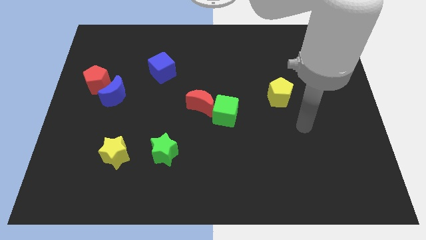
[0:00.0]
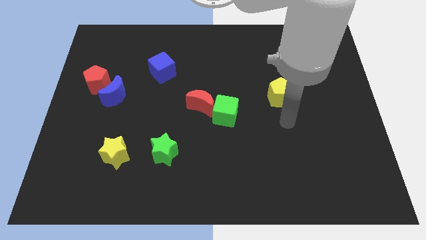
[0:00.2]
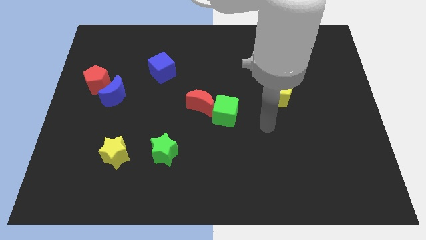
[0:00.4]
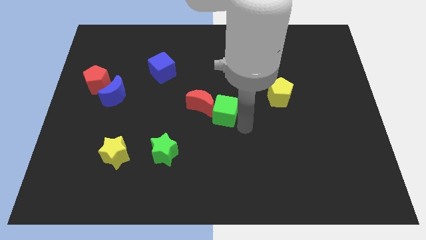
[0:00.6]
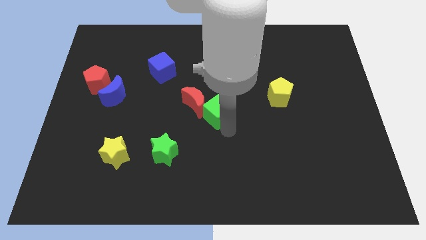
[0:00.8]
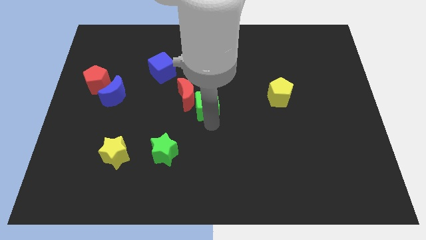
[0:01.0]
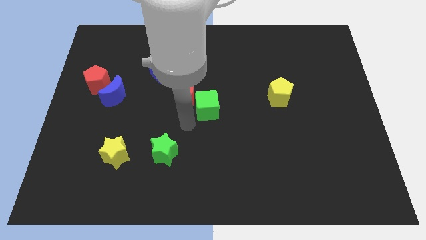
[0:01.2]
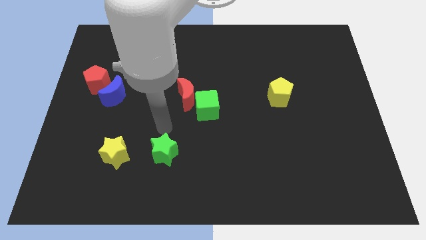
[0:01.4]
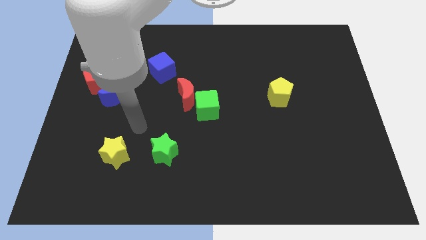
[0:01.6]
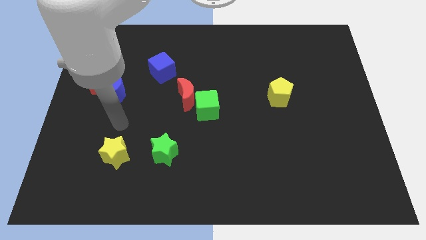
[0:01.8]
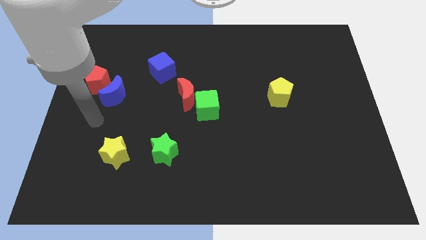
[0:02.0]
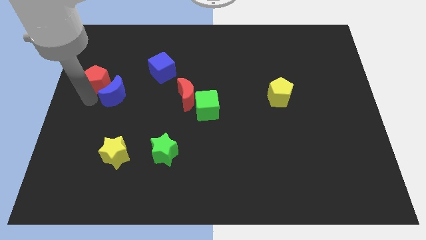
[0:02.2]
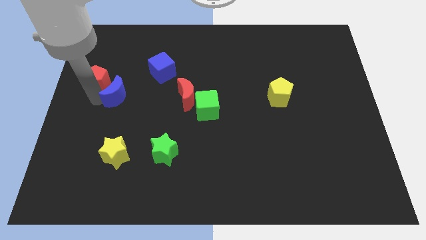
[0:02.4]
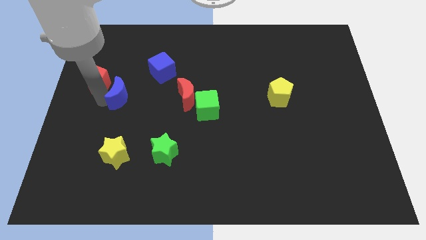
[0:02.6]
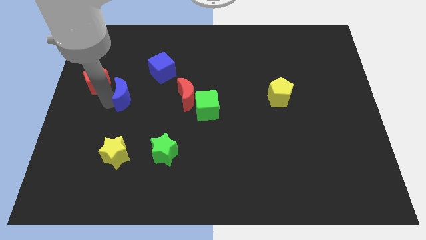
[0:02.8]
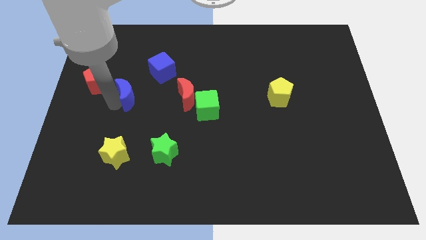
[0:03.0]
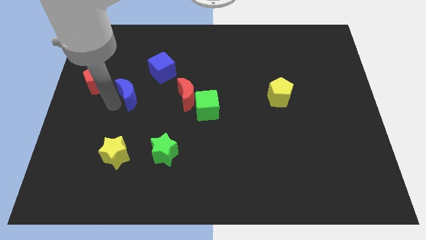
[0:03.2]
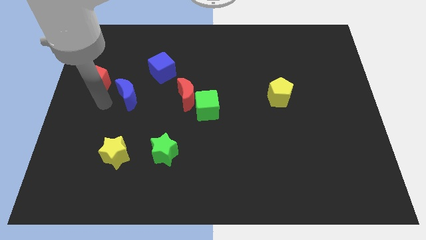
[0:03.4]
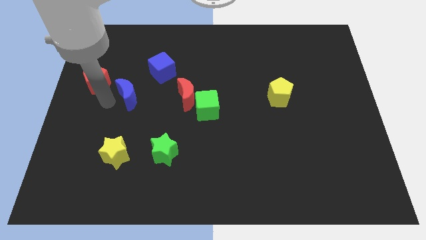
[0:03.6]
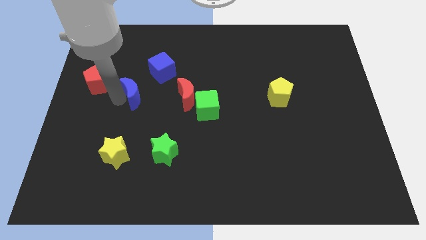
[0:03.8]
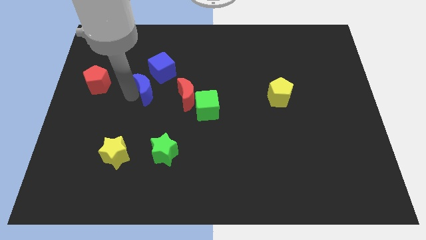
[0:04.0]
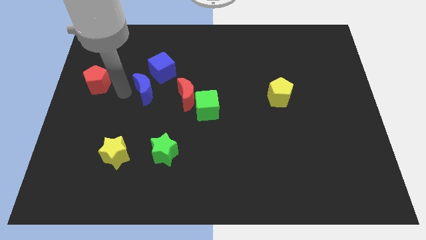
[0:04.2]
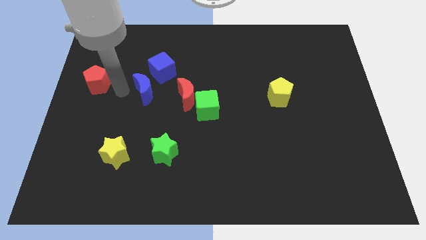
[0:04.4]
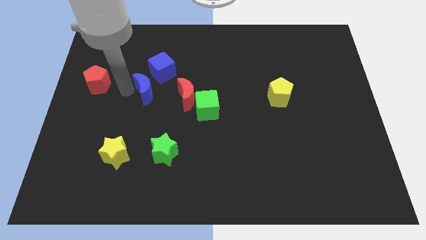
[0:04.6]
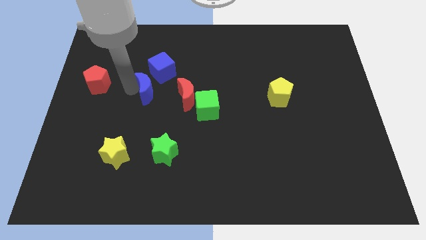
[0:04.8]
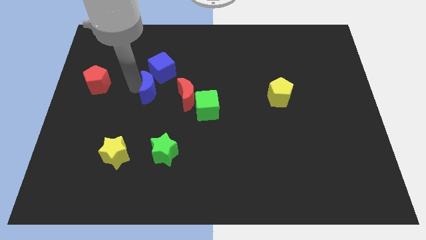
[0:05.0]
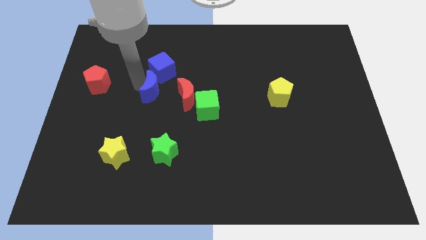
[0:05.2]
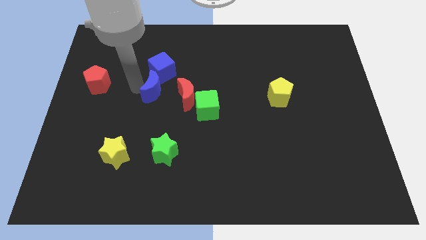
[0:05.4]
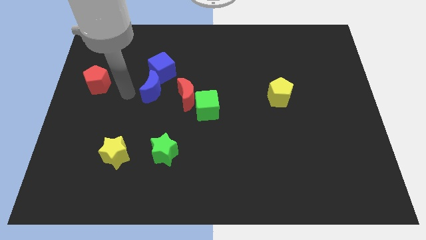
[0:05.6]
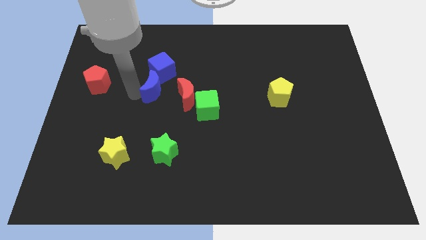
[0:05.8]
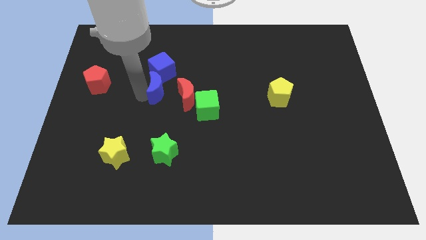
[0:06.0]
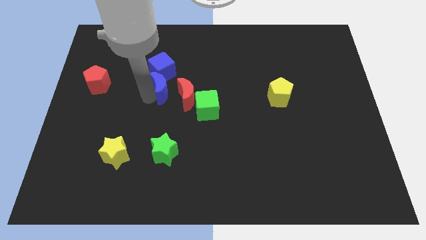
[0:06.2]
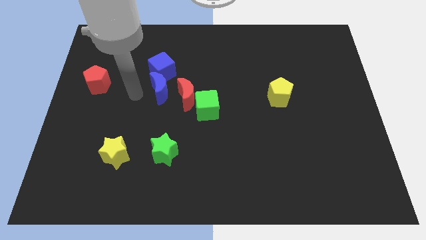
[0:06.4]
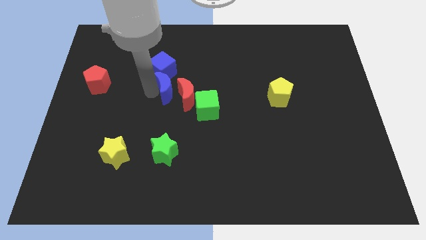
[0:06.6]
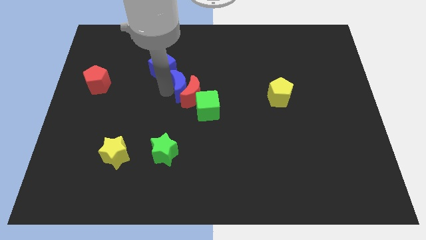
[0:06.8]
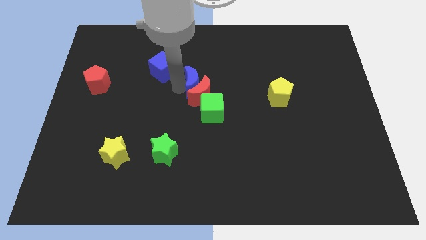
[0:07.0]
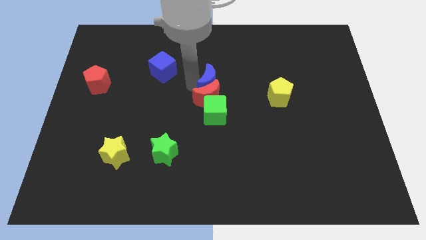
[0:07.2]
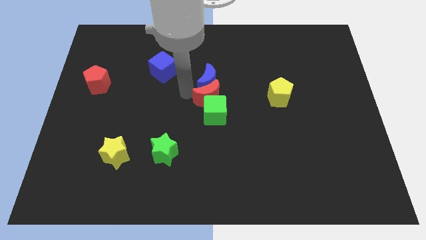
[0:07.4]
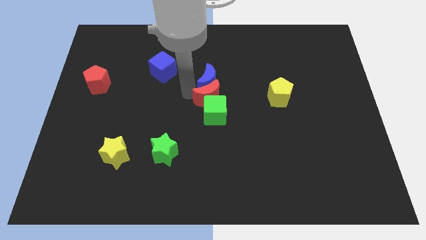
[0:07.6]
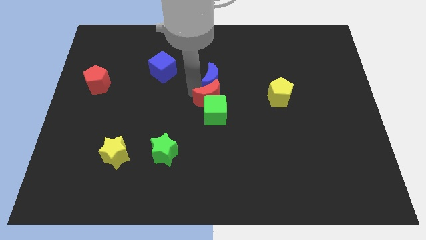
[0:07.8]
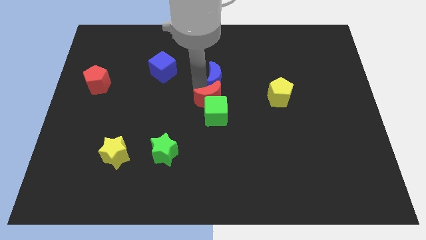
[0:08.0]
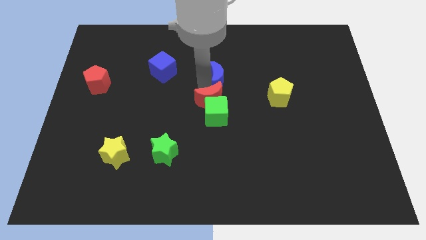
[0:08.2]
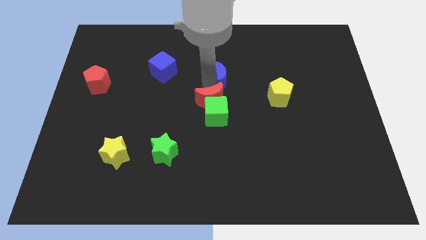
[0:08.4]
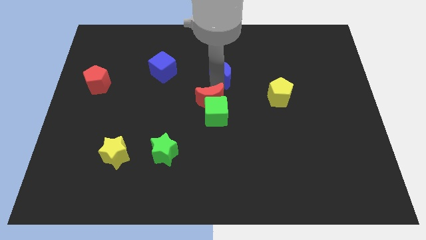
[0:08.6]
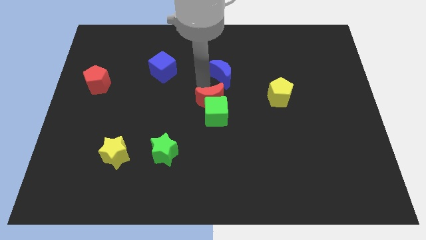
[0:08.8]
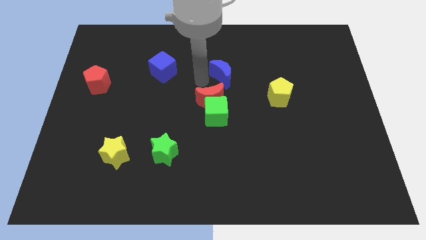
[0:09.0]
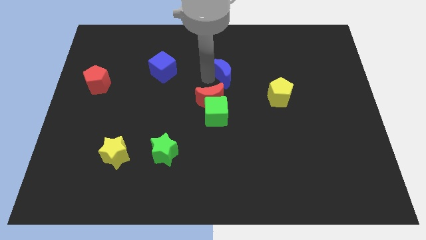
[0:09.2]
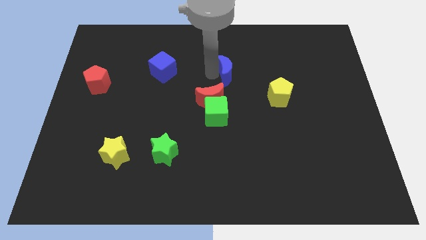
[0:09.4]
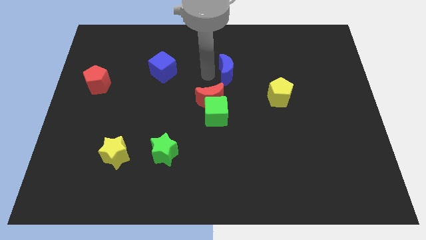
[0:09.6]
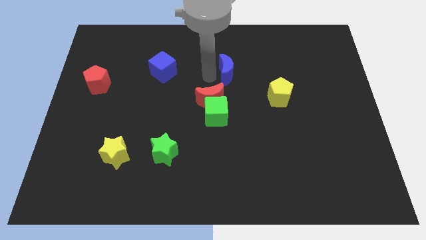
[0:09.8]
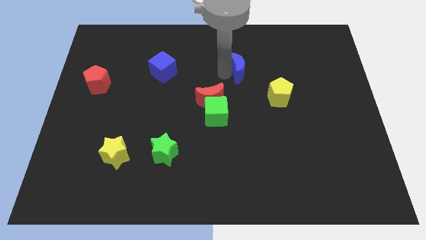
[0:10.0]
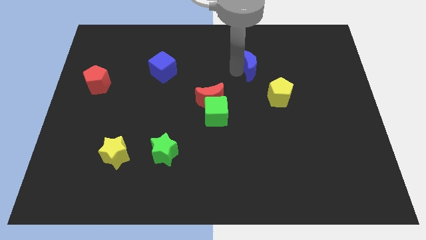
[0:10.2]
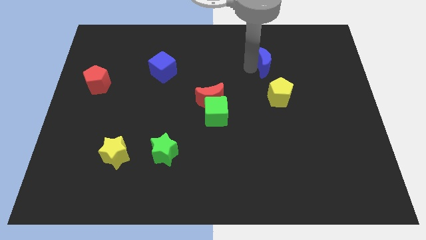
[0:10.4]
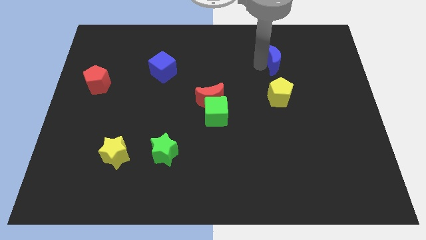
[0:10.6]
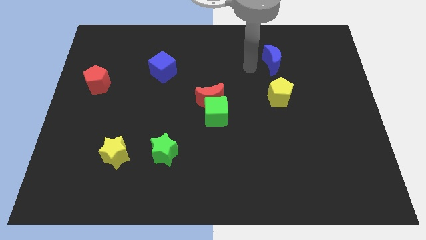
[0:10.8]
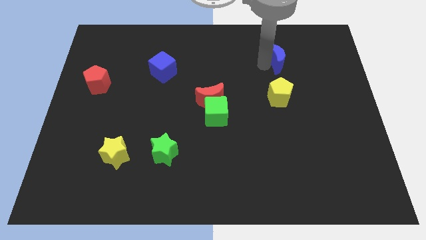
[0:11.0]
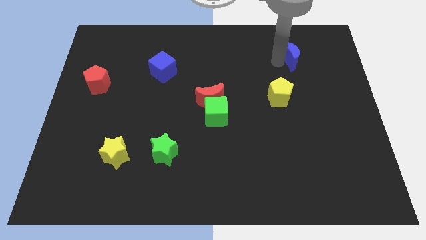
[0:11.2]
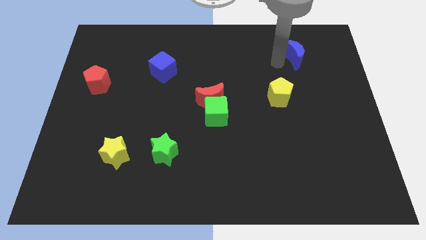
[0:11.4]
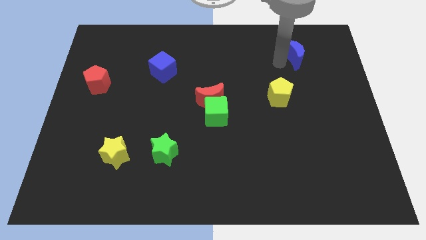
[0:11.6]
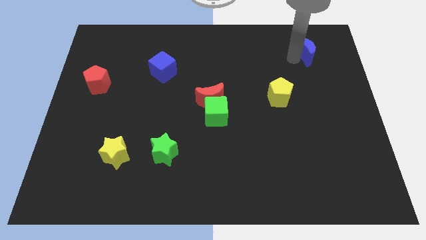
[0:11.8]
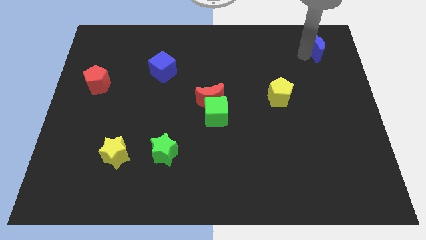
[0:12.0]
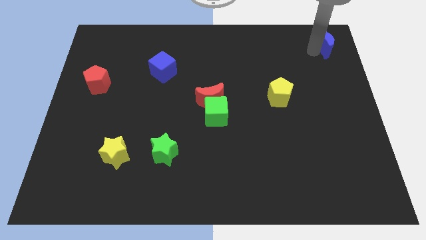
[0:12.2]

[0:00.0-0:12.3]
put the blue moon to the top right
